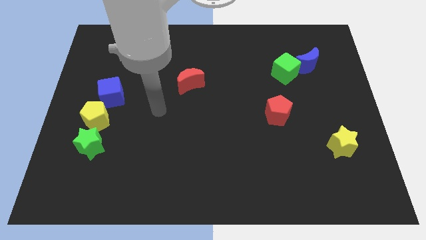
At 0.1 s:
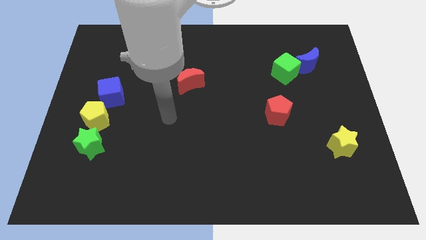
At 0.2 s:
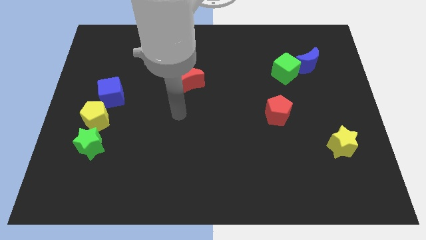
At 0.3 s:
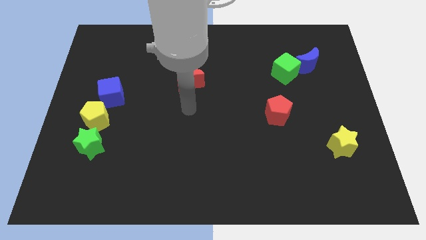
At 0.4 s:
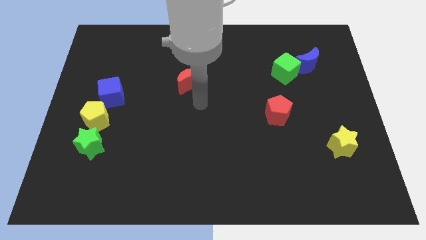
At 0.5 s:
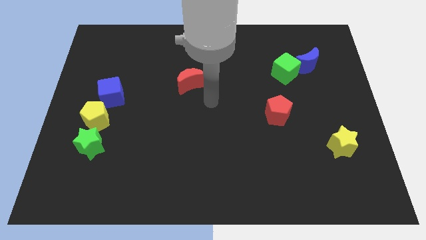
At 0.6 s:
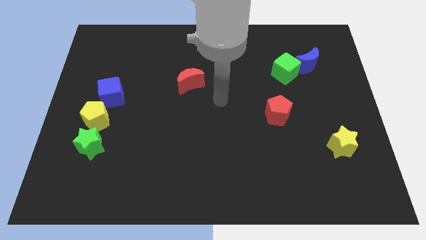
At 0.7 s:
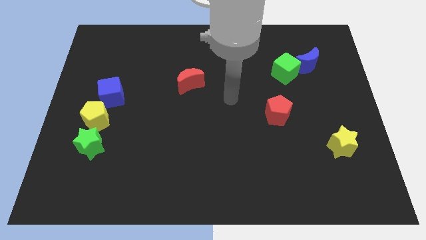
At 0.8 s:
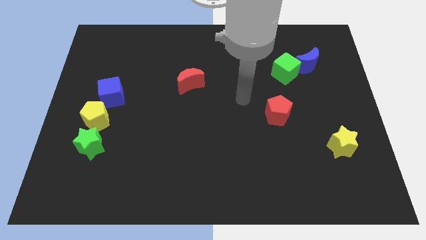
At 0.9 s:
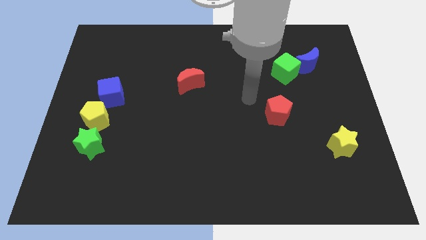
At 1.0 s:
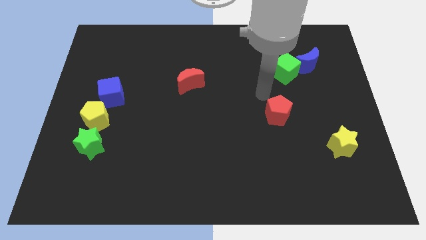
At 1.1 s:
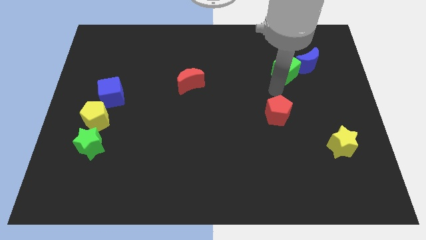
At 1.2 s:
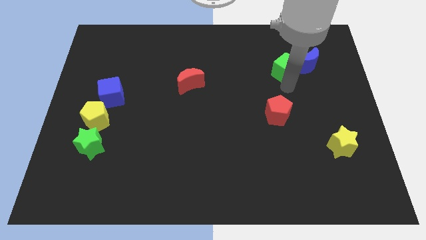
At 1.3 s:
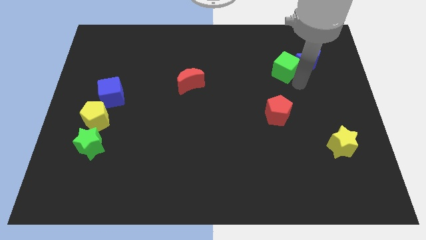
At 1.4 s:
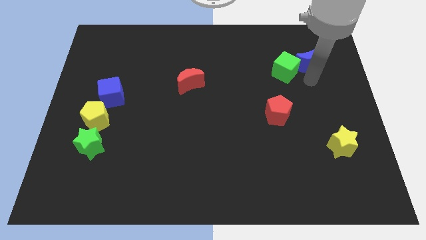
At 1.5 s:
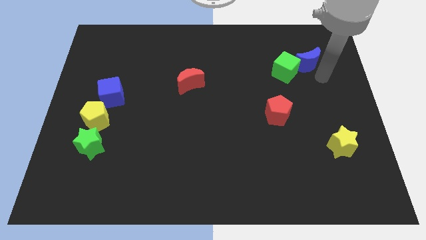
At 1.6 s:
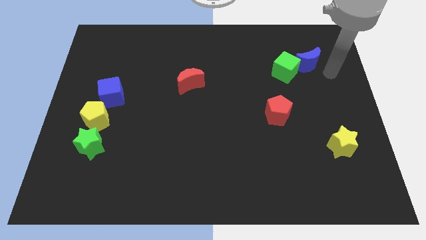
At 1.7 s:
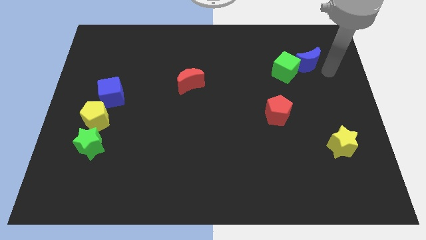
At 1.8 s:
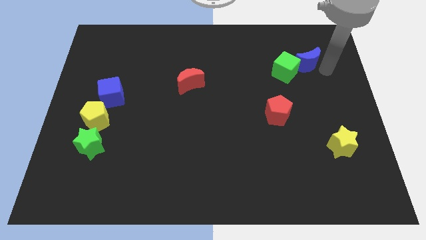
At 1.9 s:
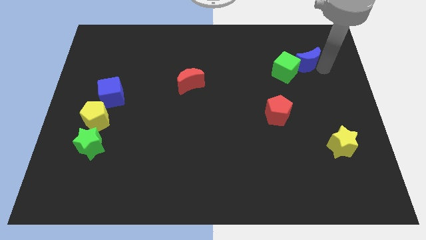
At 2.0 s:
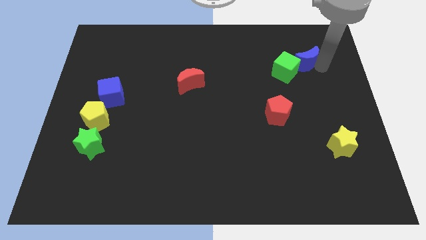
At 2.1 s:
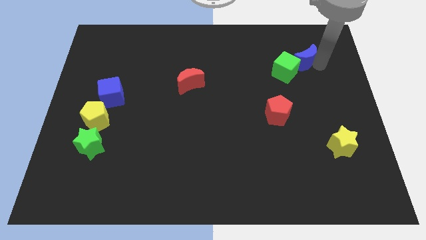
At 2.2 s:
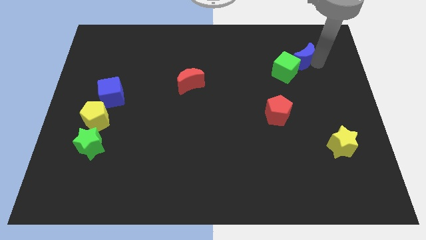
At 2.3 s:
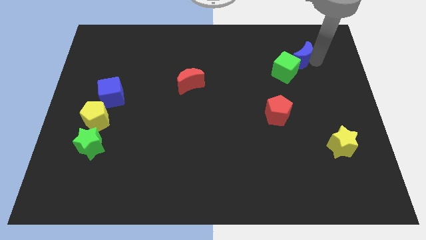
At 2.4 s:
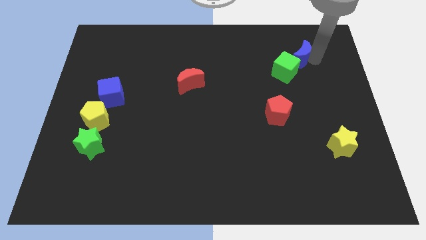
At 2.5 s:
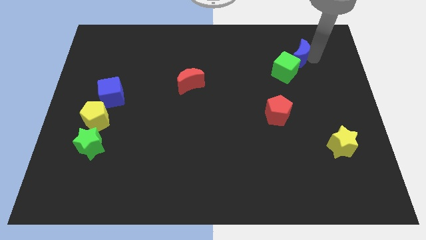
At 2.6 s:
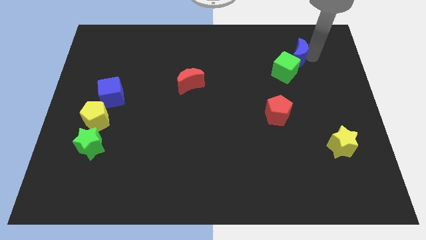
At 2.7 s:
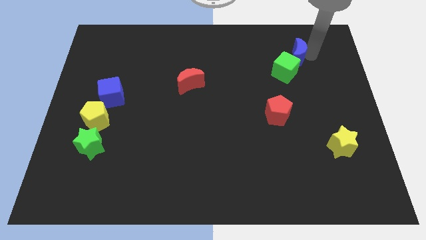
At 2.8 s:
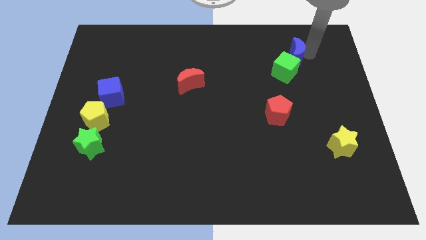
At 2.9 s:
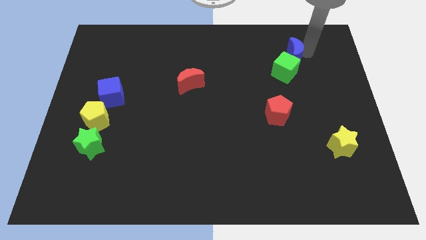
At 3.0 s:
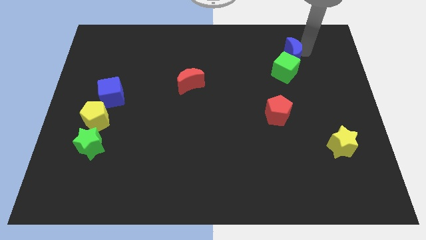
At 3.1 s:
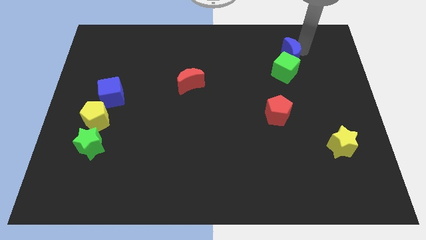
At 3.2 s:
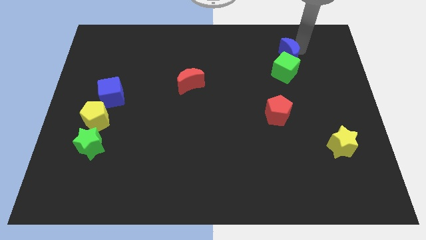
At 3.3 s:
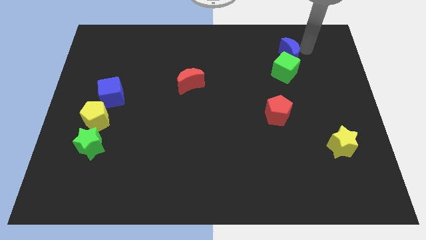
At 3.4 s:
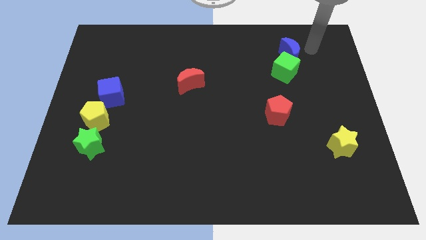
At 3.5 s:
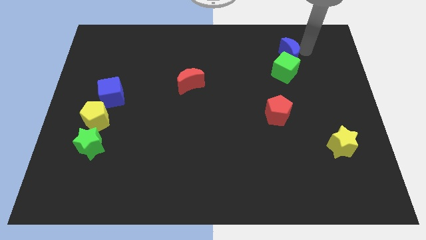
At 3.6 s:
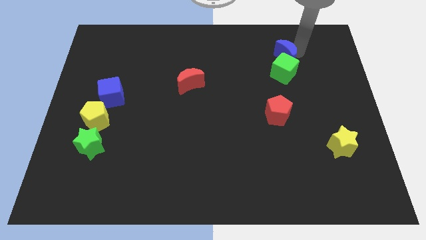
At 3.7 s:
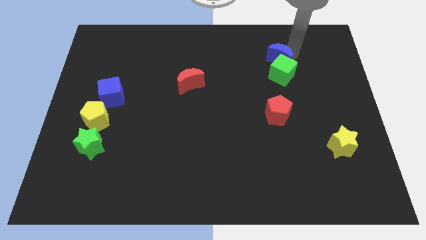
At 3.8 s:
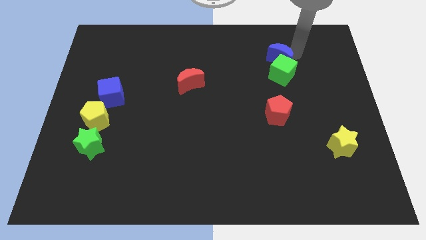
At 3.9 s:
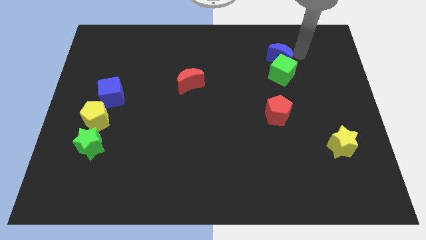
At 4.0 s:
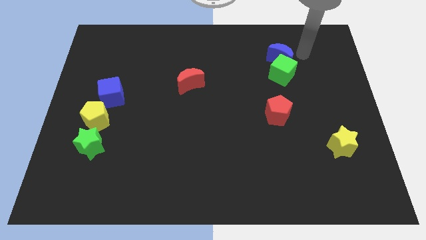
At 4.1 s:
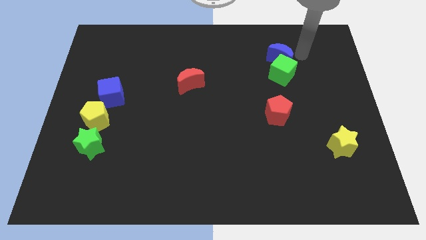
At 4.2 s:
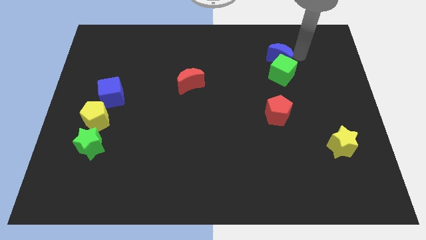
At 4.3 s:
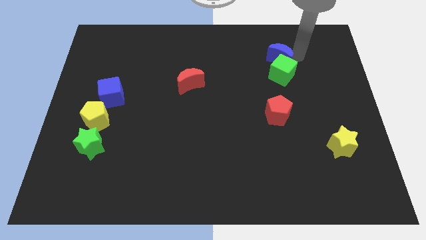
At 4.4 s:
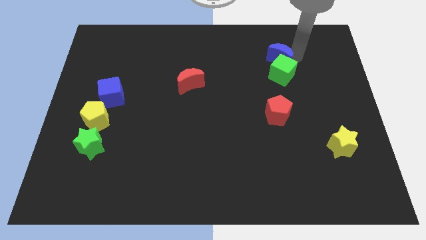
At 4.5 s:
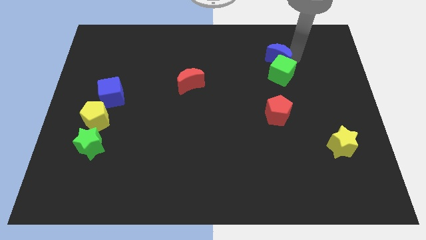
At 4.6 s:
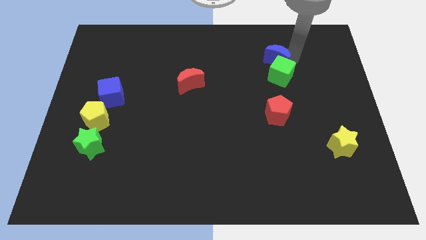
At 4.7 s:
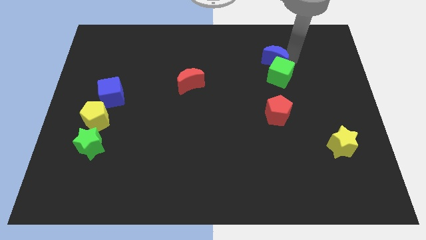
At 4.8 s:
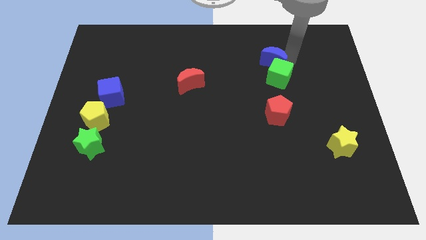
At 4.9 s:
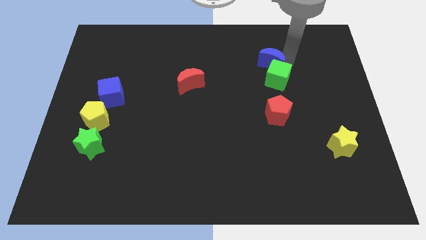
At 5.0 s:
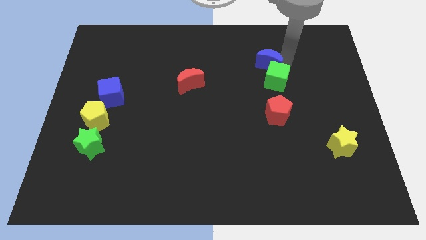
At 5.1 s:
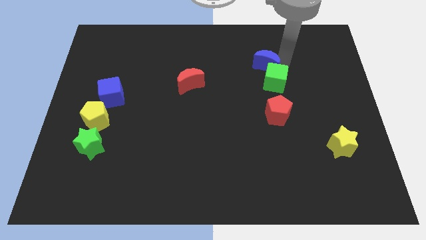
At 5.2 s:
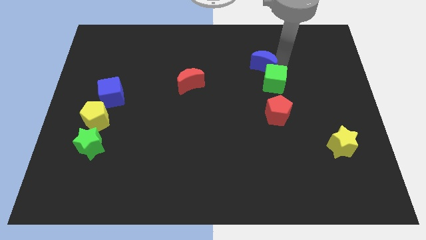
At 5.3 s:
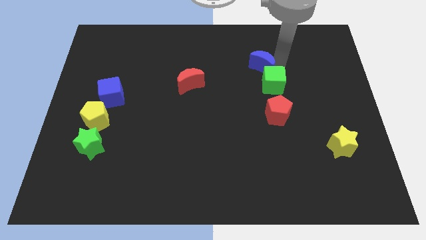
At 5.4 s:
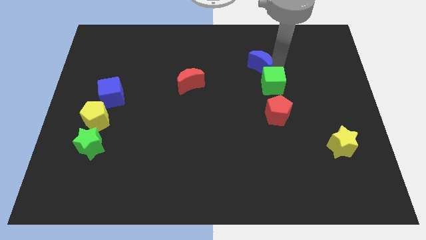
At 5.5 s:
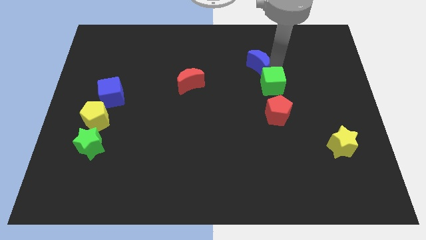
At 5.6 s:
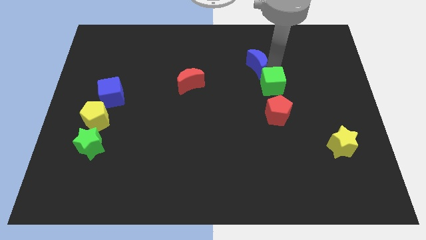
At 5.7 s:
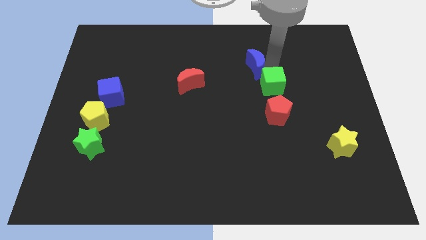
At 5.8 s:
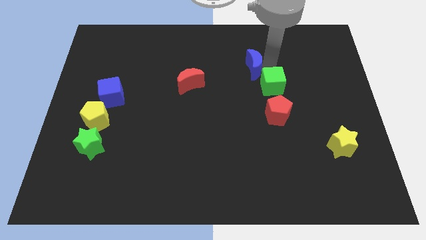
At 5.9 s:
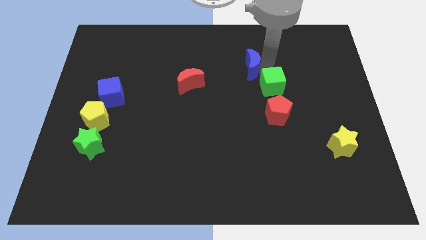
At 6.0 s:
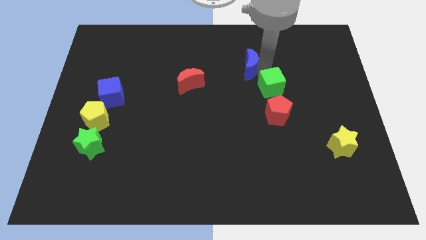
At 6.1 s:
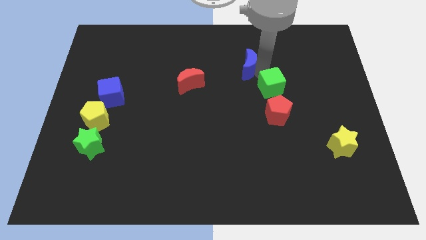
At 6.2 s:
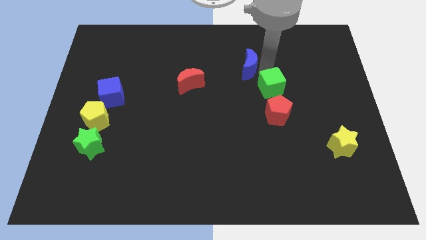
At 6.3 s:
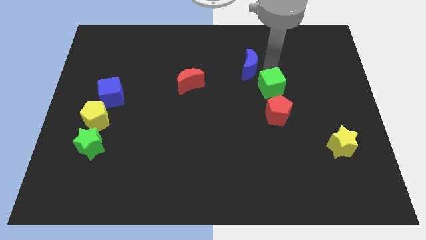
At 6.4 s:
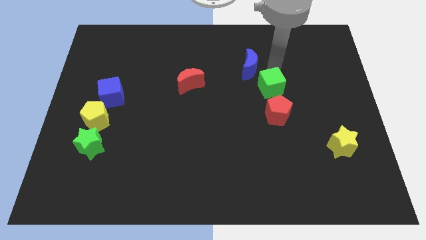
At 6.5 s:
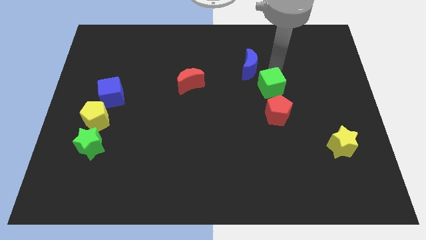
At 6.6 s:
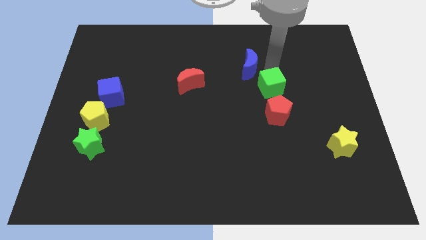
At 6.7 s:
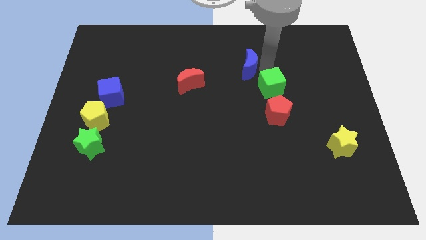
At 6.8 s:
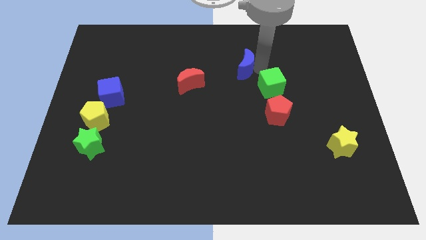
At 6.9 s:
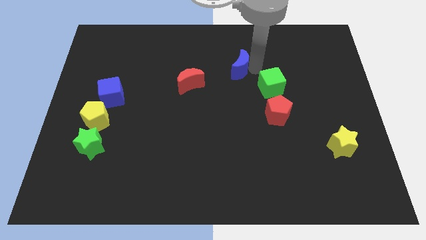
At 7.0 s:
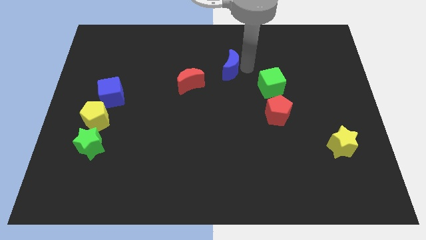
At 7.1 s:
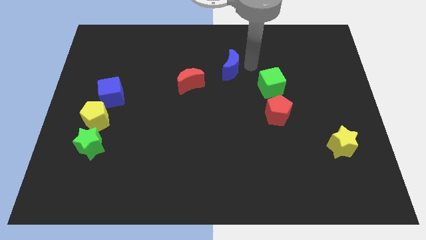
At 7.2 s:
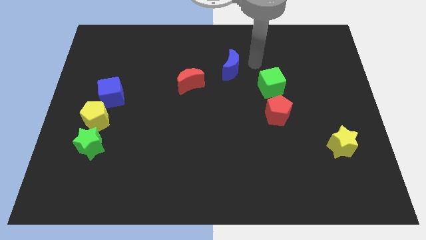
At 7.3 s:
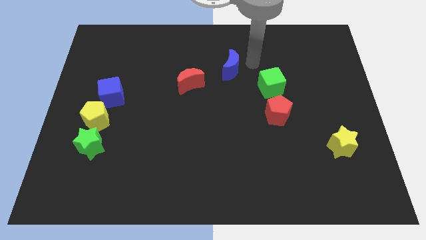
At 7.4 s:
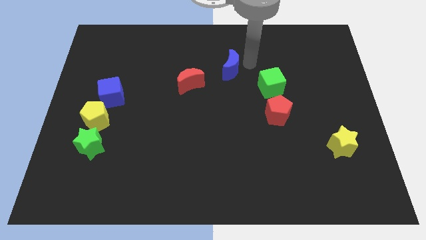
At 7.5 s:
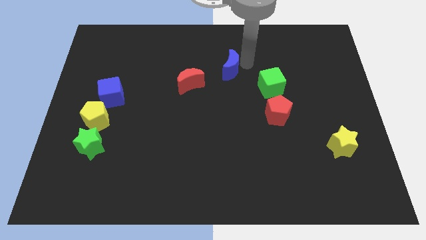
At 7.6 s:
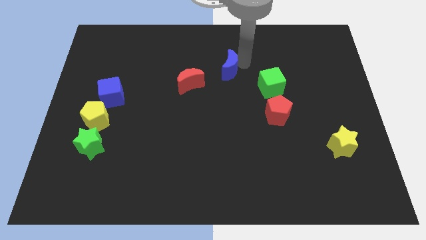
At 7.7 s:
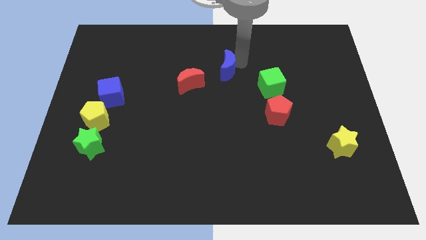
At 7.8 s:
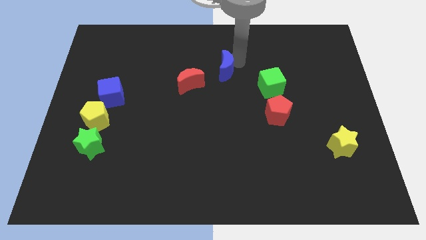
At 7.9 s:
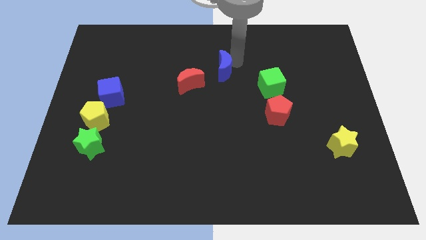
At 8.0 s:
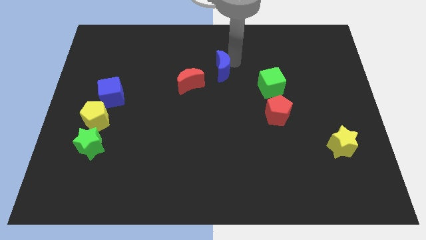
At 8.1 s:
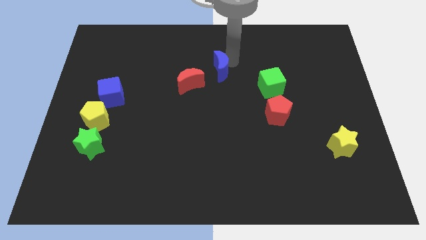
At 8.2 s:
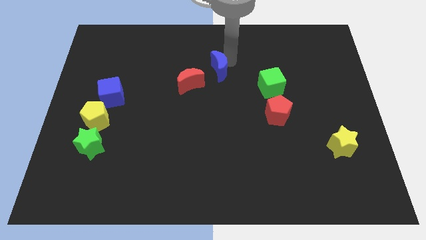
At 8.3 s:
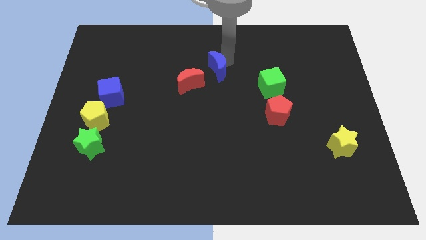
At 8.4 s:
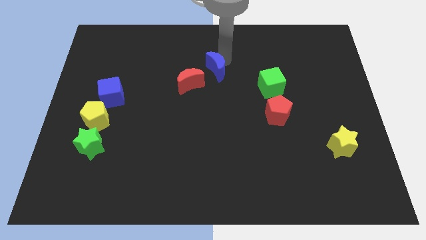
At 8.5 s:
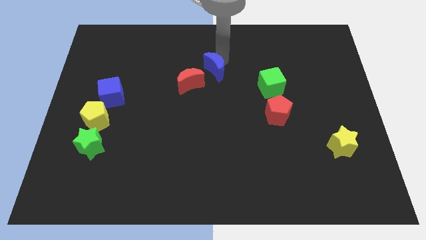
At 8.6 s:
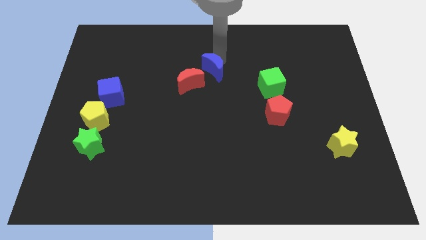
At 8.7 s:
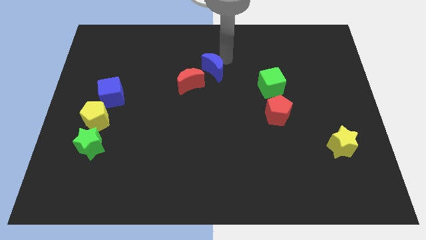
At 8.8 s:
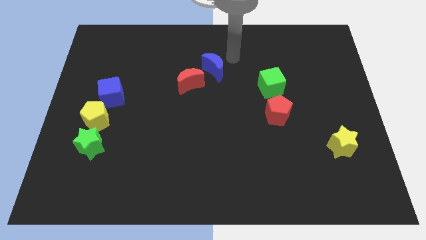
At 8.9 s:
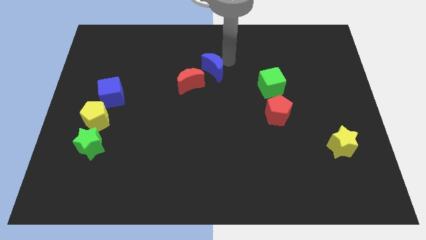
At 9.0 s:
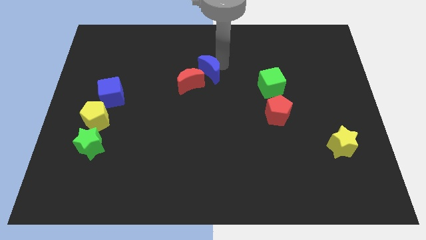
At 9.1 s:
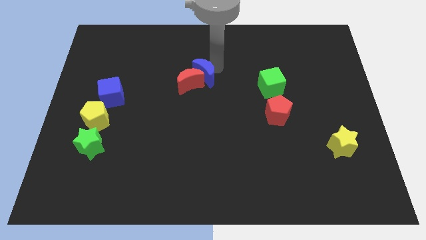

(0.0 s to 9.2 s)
put the blue moon towards the red moon
